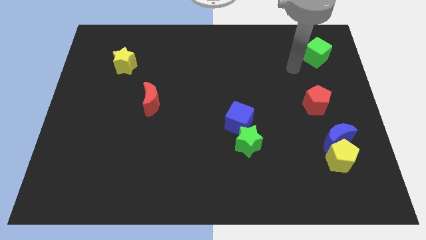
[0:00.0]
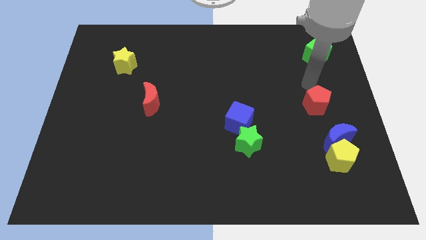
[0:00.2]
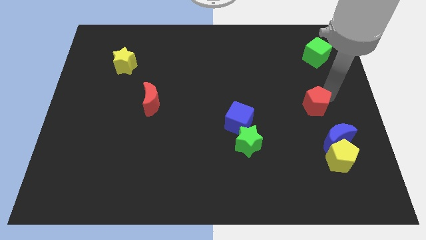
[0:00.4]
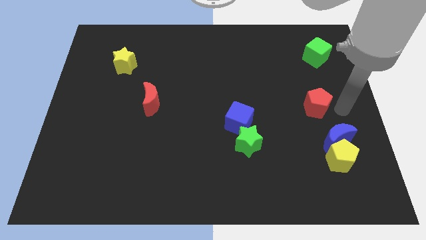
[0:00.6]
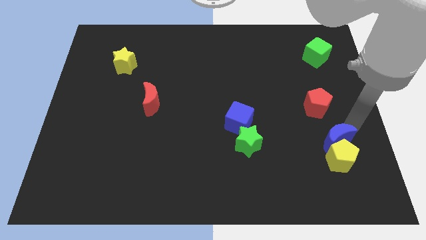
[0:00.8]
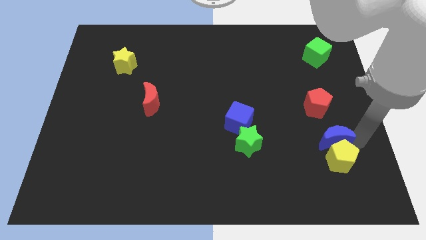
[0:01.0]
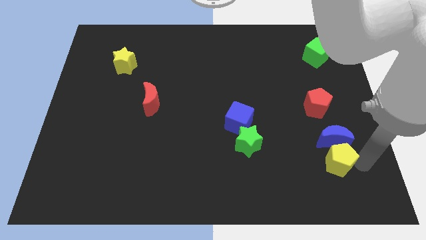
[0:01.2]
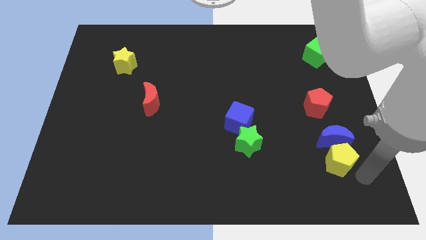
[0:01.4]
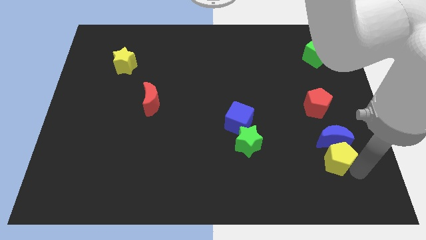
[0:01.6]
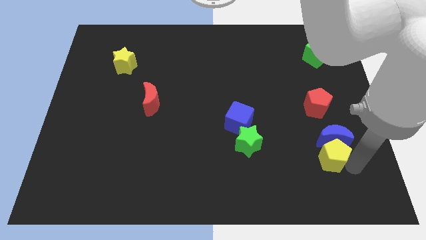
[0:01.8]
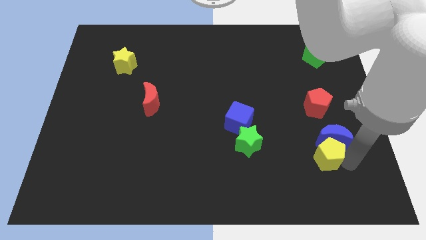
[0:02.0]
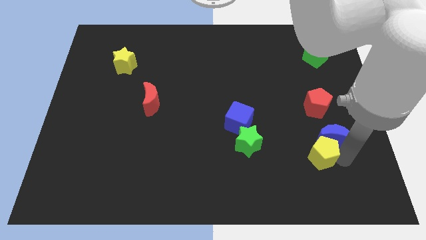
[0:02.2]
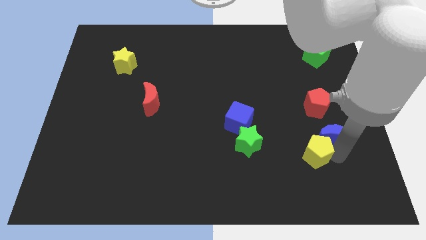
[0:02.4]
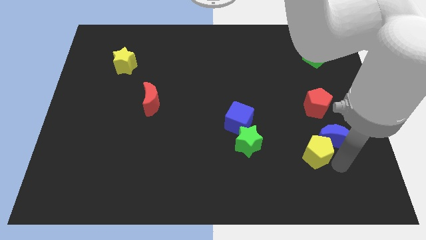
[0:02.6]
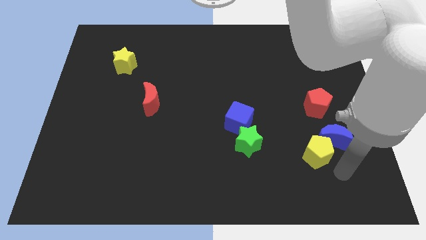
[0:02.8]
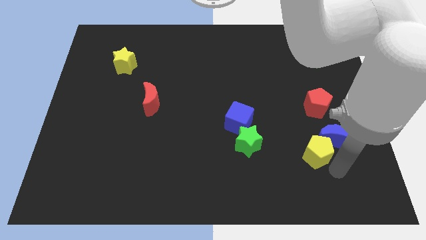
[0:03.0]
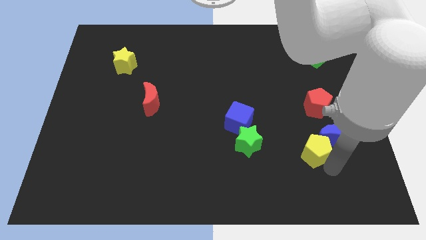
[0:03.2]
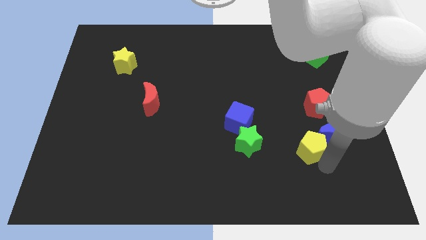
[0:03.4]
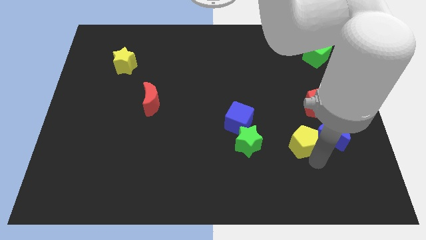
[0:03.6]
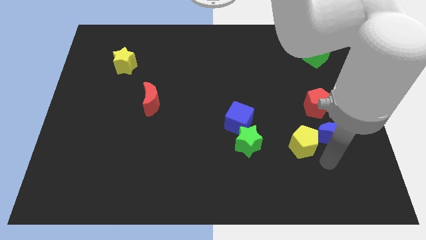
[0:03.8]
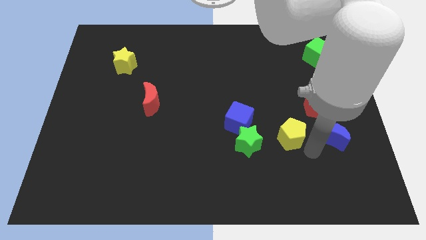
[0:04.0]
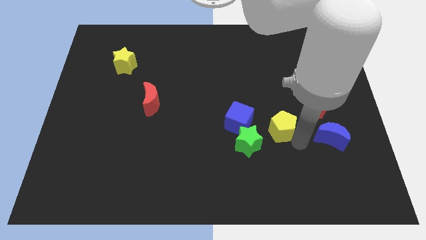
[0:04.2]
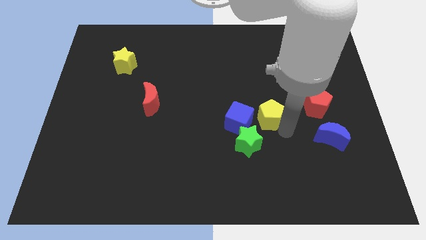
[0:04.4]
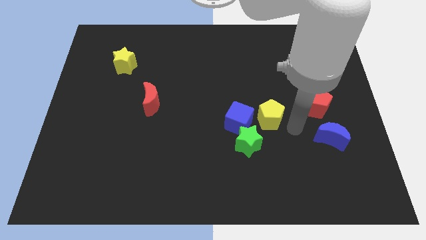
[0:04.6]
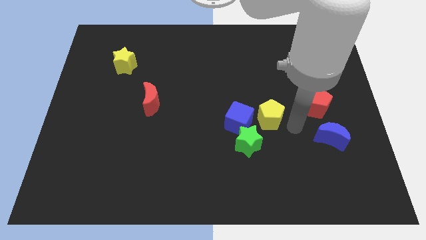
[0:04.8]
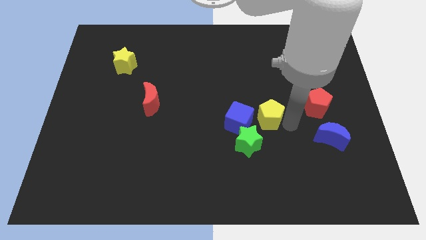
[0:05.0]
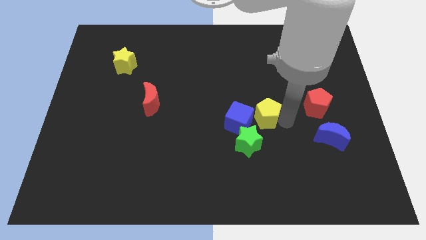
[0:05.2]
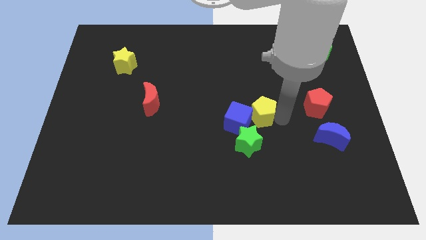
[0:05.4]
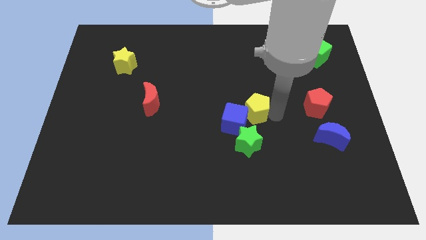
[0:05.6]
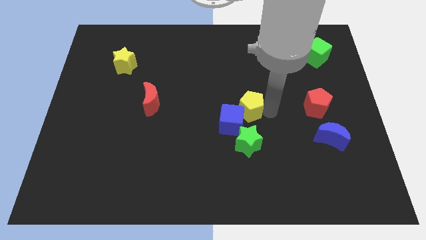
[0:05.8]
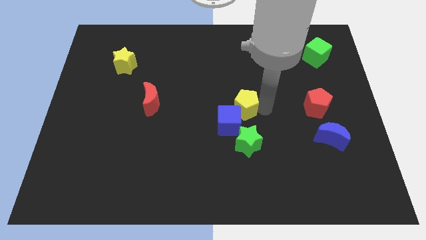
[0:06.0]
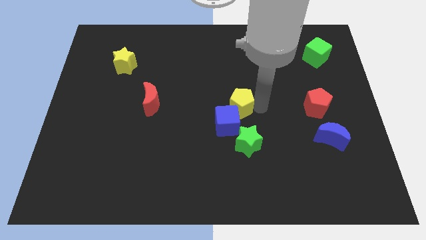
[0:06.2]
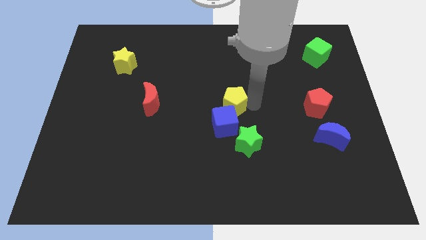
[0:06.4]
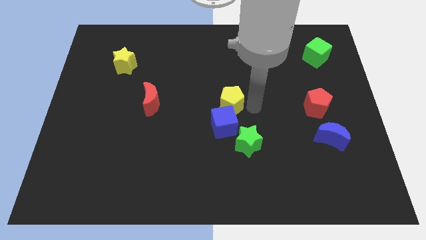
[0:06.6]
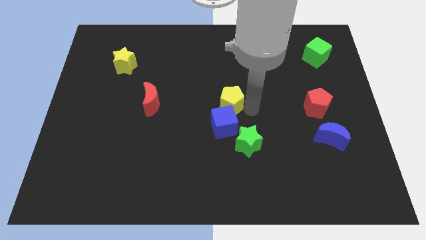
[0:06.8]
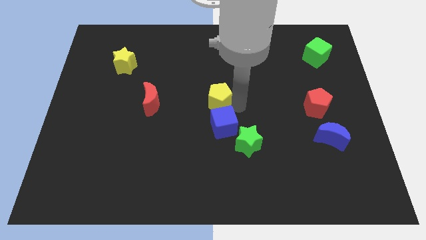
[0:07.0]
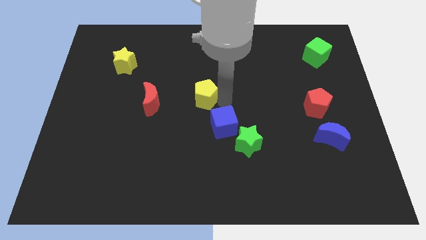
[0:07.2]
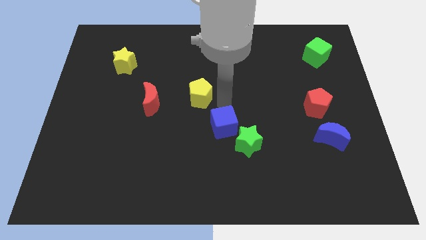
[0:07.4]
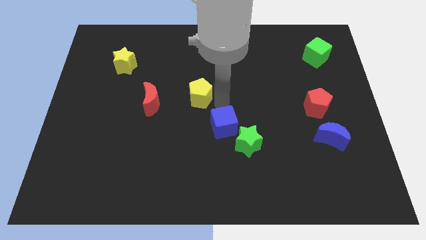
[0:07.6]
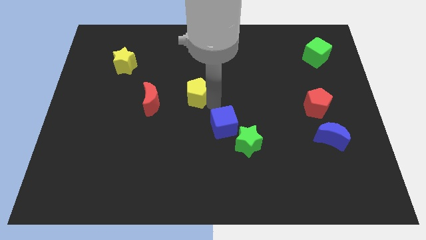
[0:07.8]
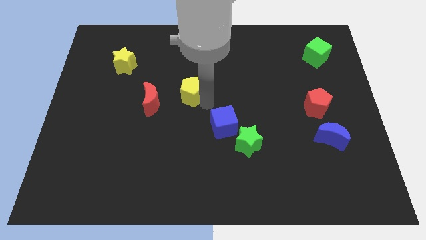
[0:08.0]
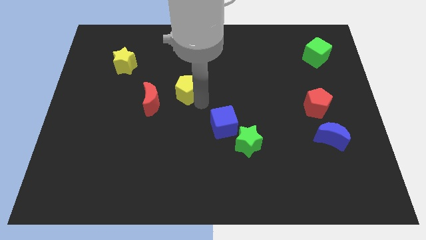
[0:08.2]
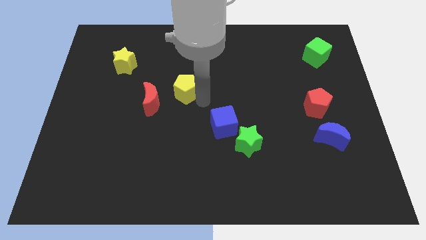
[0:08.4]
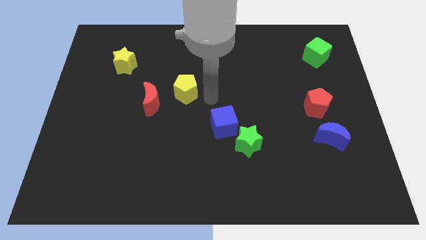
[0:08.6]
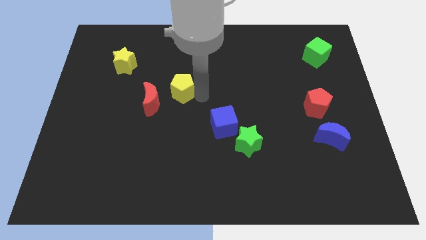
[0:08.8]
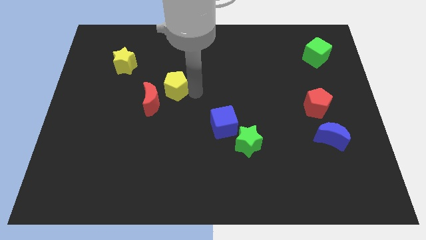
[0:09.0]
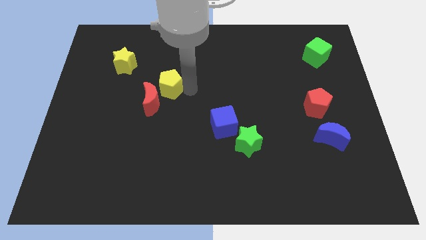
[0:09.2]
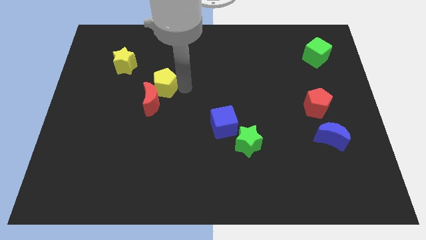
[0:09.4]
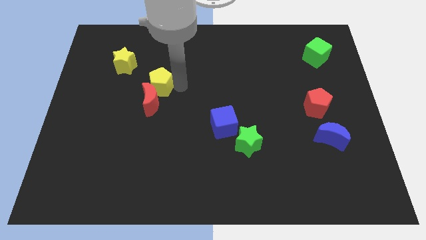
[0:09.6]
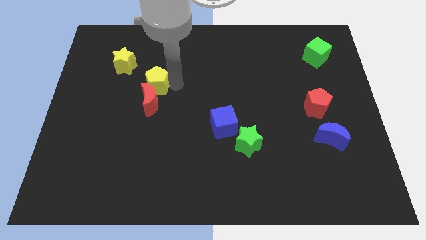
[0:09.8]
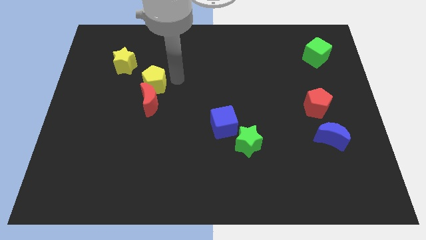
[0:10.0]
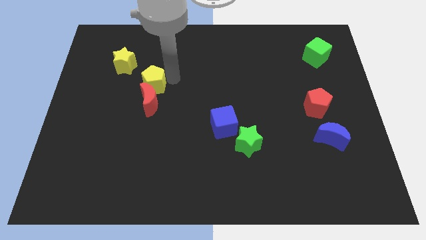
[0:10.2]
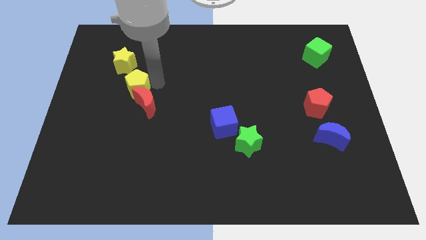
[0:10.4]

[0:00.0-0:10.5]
put the yellow pentagon below the yellow star

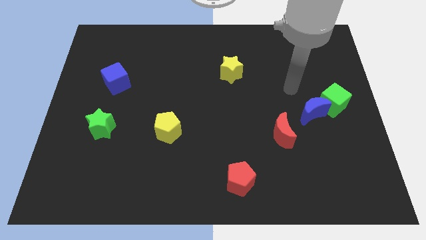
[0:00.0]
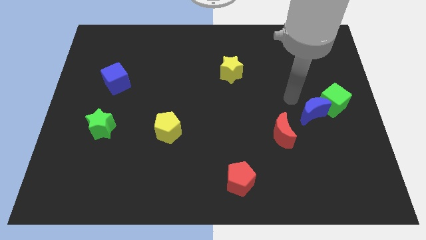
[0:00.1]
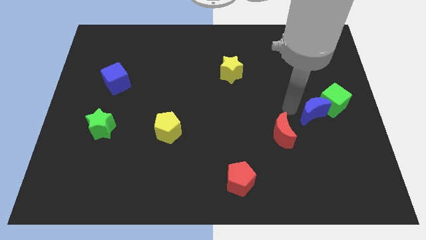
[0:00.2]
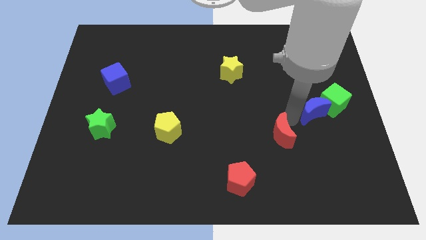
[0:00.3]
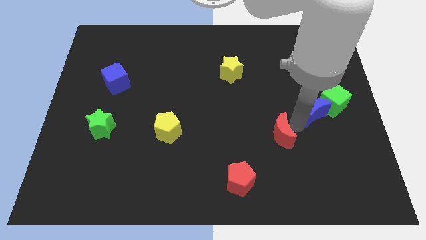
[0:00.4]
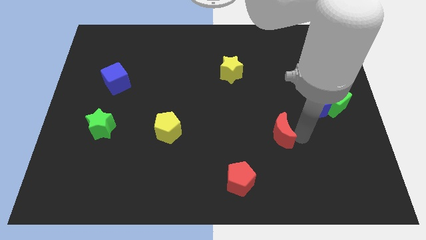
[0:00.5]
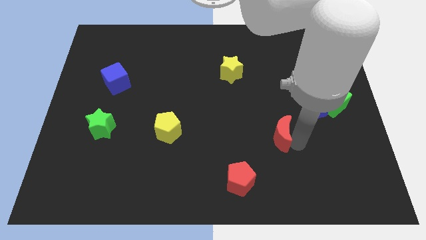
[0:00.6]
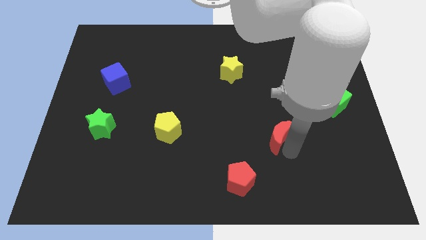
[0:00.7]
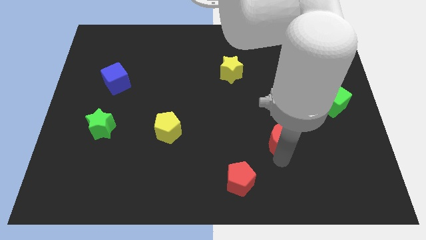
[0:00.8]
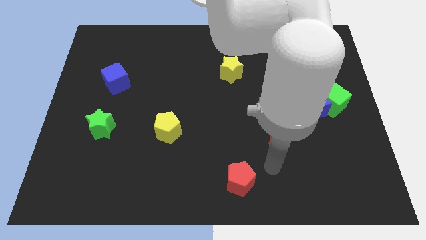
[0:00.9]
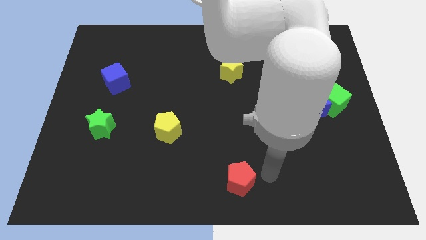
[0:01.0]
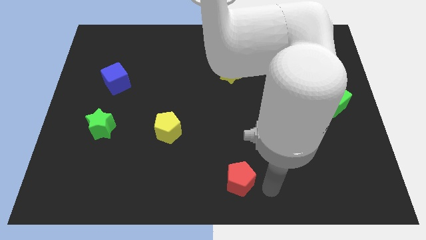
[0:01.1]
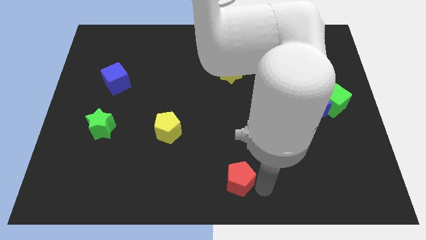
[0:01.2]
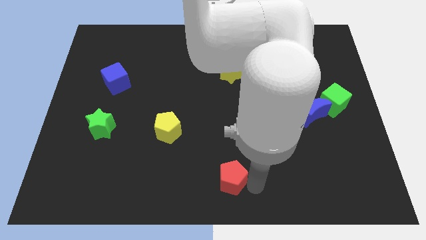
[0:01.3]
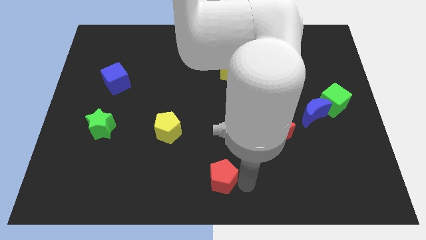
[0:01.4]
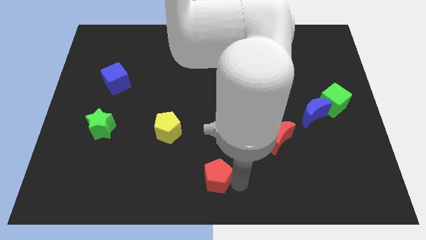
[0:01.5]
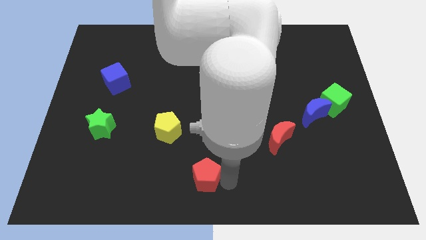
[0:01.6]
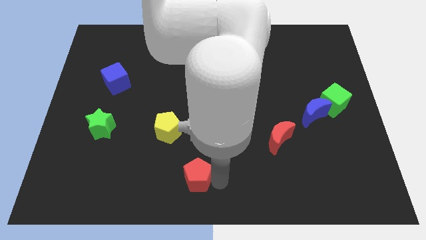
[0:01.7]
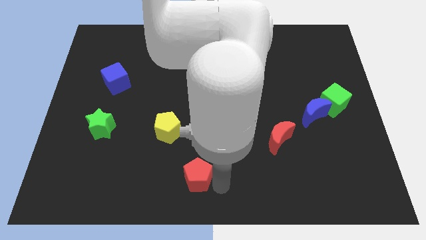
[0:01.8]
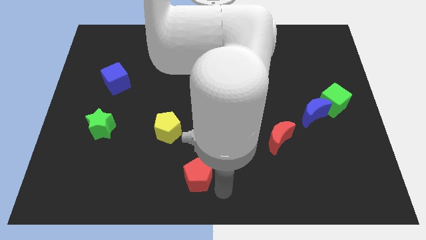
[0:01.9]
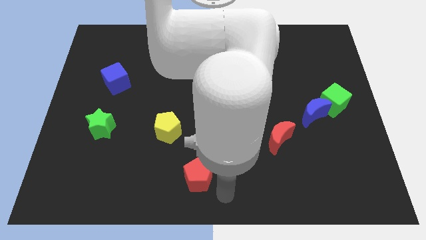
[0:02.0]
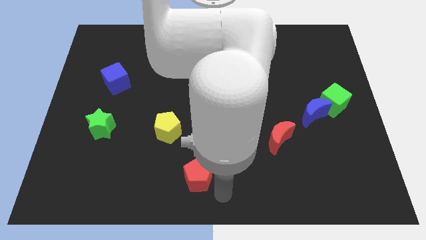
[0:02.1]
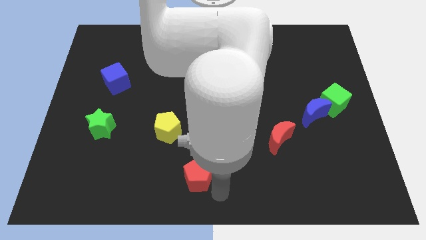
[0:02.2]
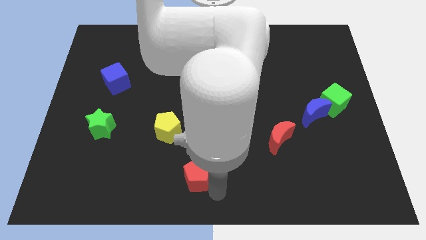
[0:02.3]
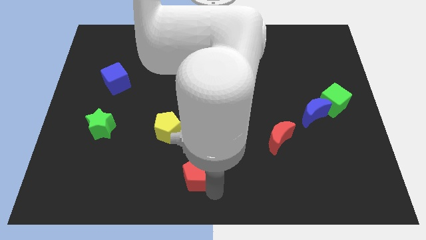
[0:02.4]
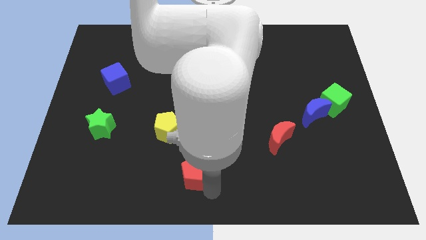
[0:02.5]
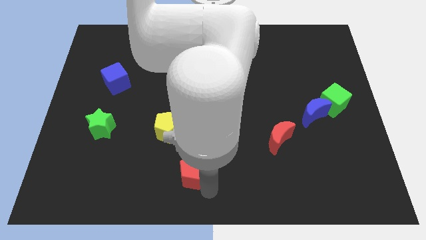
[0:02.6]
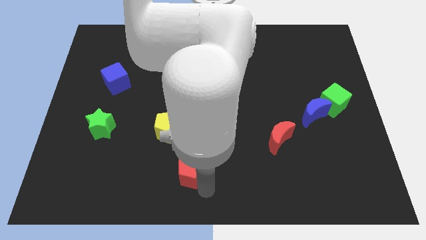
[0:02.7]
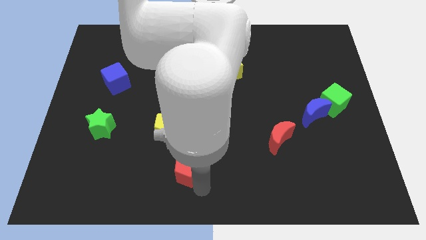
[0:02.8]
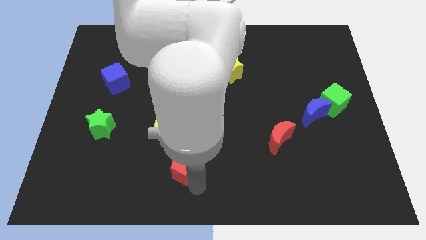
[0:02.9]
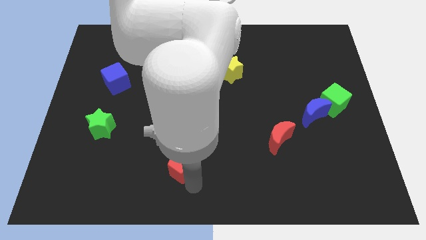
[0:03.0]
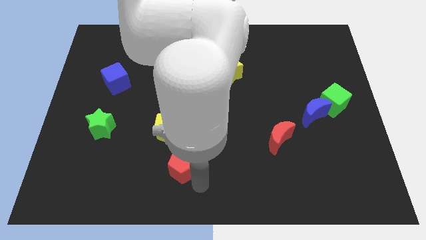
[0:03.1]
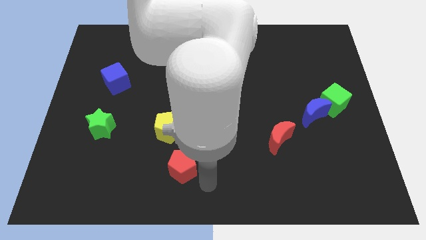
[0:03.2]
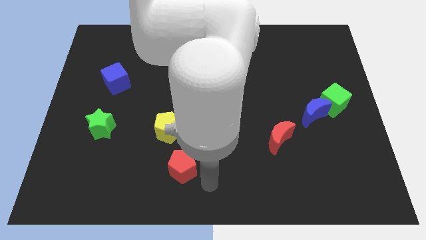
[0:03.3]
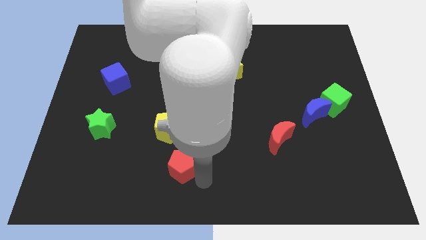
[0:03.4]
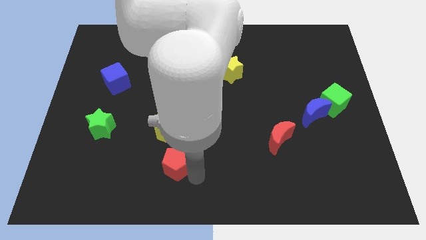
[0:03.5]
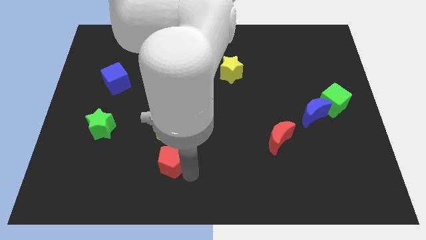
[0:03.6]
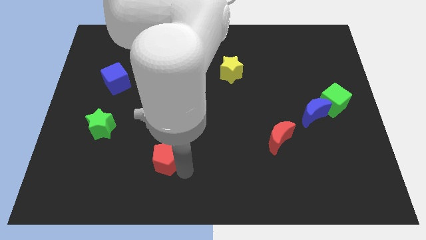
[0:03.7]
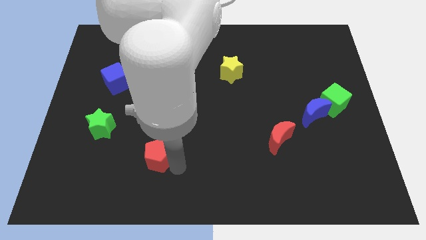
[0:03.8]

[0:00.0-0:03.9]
move the red pentagon to the bottom left of the yellow pentagon
